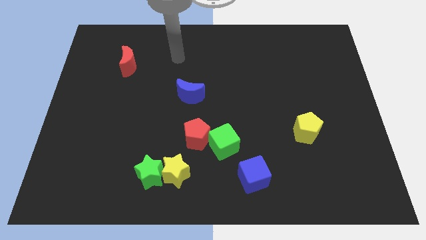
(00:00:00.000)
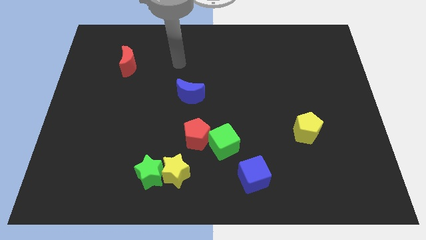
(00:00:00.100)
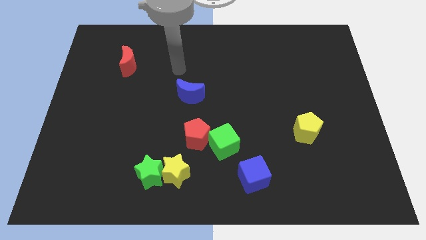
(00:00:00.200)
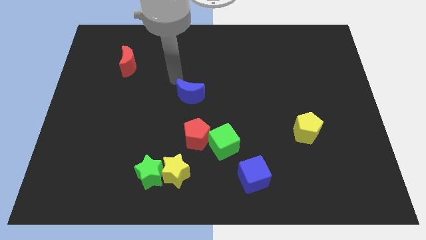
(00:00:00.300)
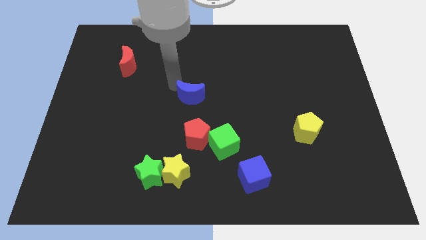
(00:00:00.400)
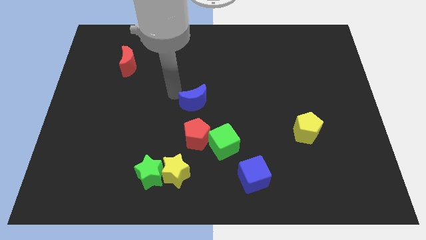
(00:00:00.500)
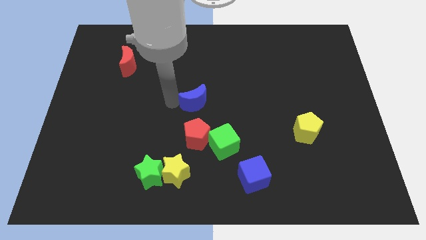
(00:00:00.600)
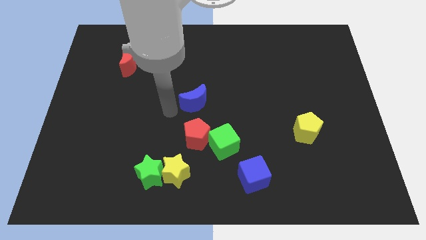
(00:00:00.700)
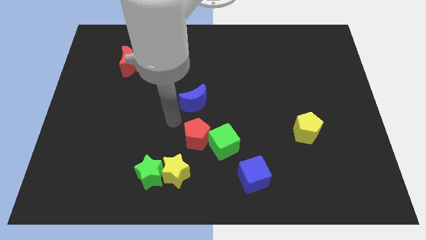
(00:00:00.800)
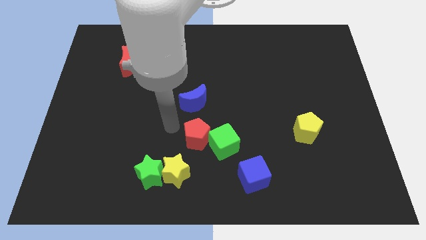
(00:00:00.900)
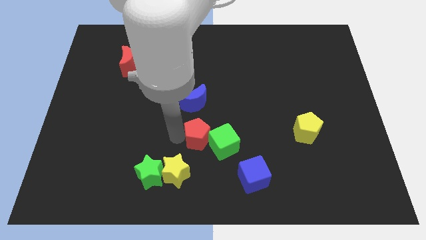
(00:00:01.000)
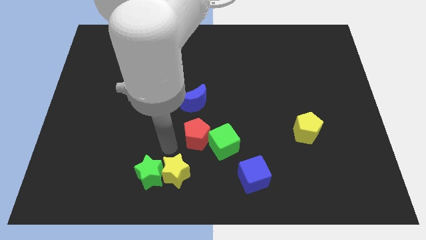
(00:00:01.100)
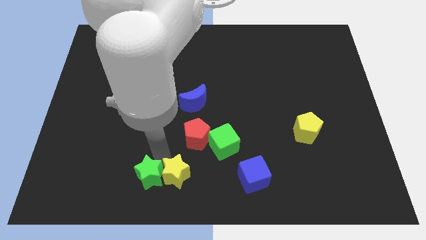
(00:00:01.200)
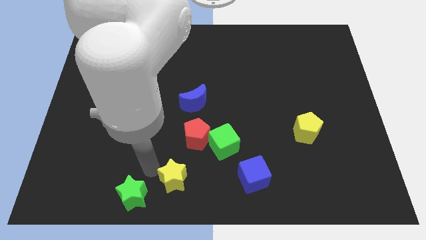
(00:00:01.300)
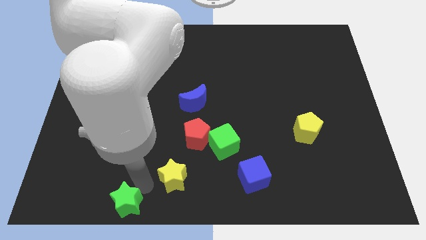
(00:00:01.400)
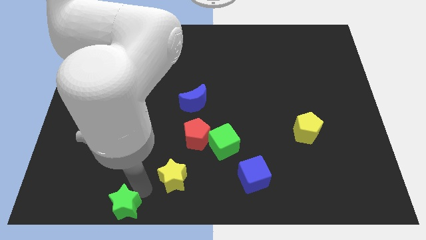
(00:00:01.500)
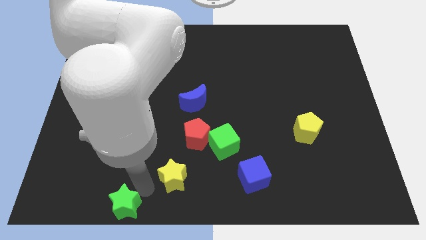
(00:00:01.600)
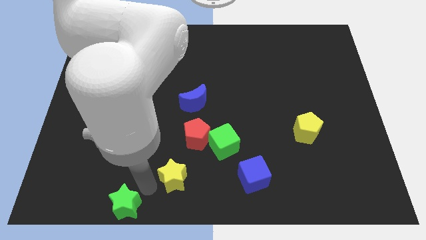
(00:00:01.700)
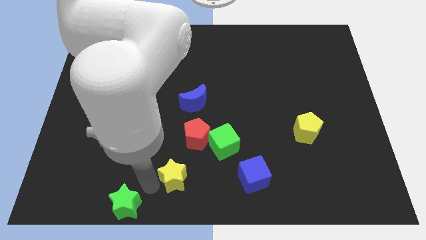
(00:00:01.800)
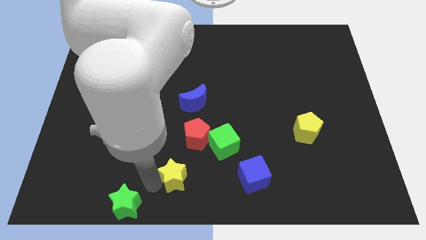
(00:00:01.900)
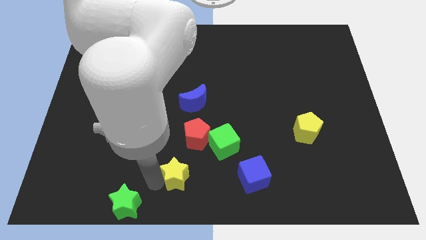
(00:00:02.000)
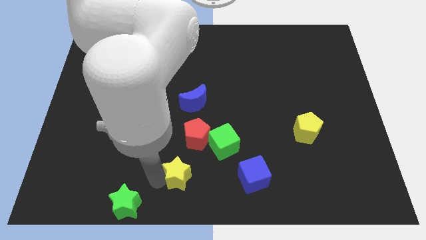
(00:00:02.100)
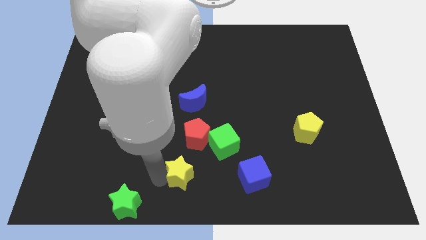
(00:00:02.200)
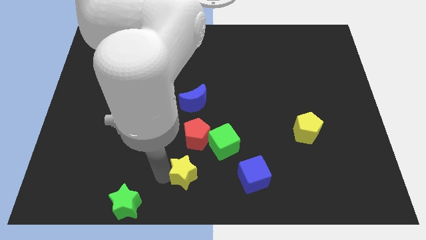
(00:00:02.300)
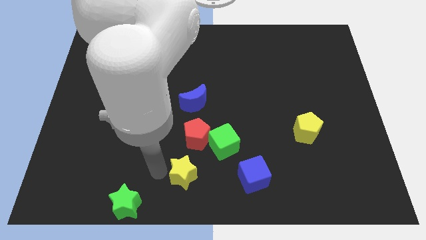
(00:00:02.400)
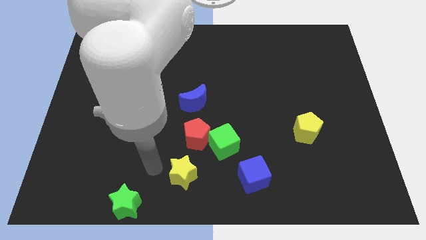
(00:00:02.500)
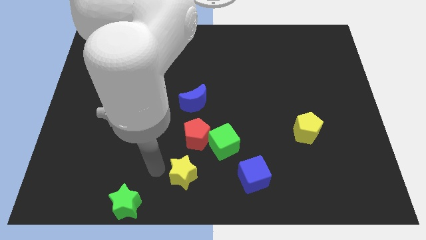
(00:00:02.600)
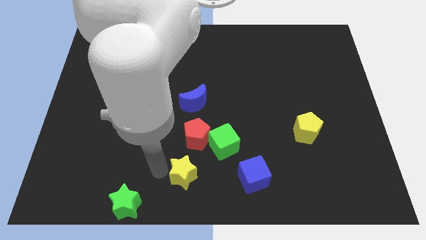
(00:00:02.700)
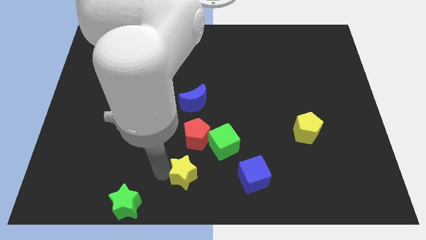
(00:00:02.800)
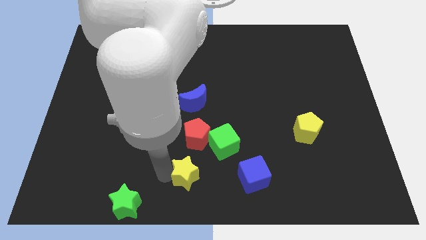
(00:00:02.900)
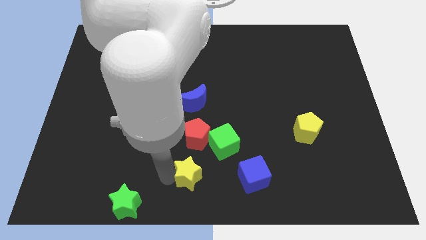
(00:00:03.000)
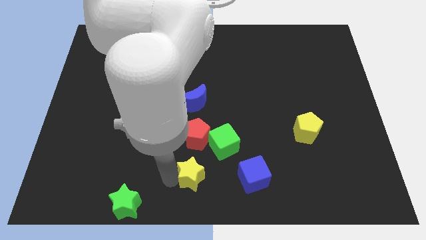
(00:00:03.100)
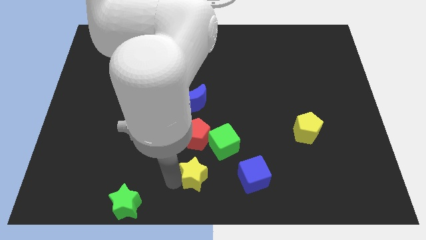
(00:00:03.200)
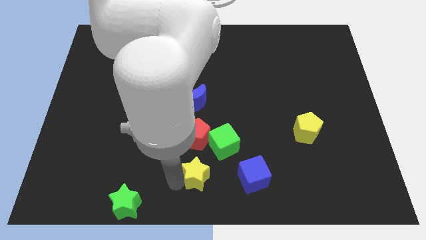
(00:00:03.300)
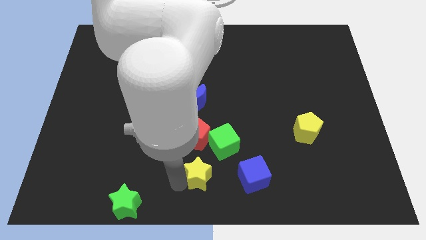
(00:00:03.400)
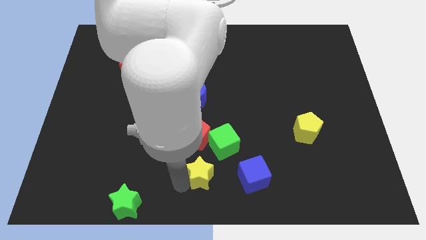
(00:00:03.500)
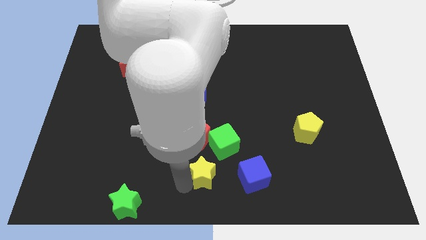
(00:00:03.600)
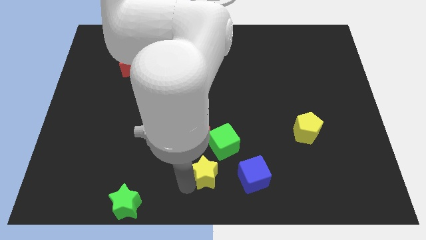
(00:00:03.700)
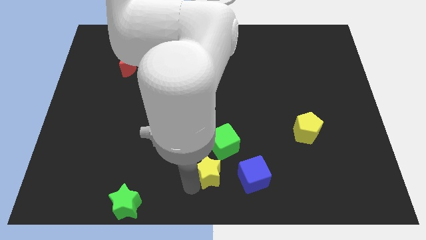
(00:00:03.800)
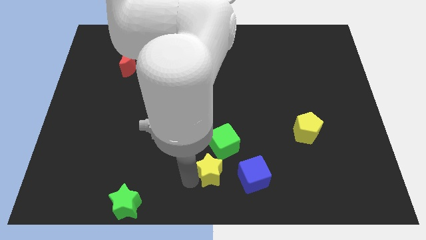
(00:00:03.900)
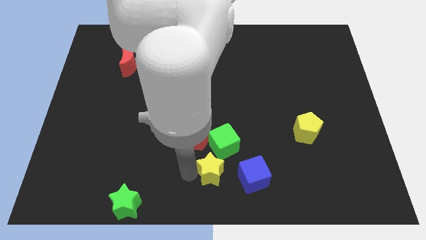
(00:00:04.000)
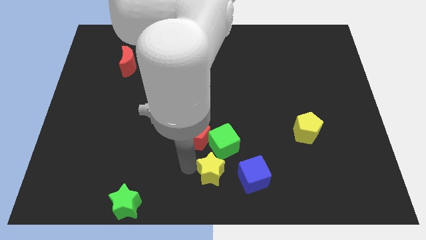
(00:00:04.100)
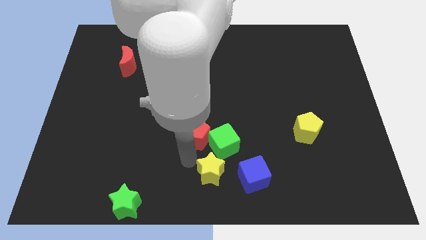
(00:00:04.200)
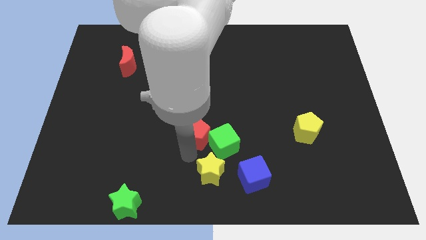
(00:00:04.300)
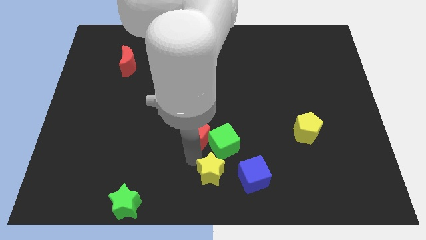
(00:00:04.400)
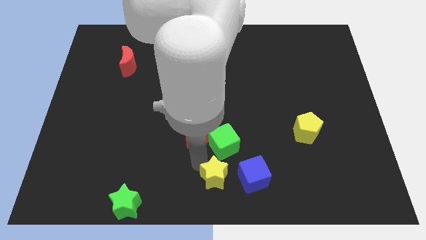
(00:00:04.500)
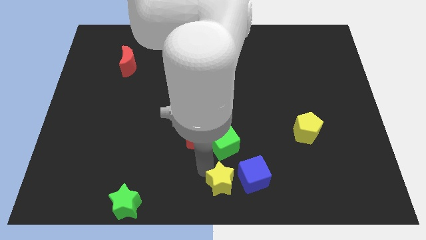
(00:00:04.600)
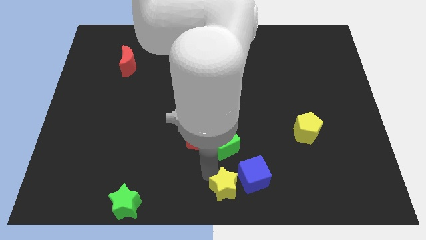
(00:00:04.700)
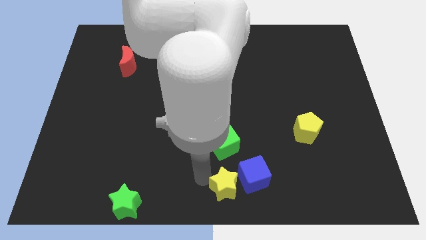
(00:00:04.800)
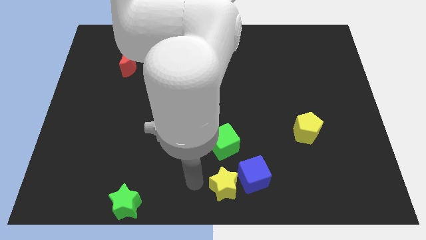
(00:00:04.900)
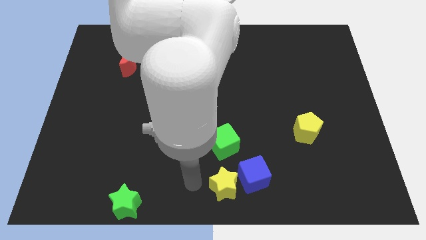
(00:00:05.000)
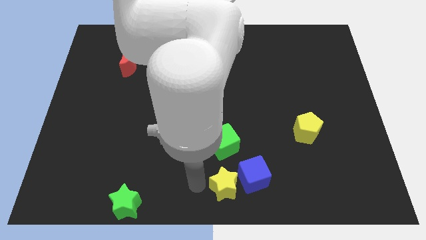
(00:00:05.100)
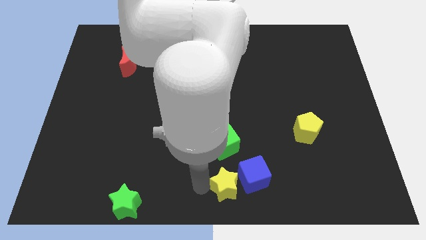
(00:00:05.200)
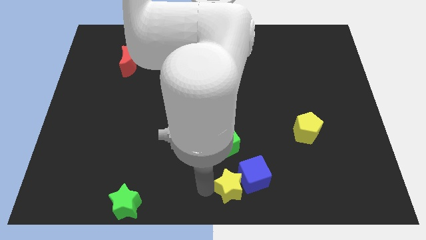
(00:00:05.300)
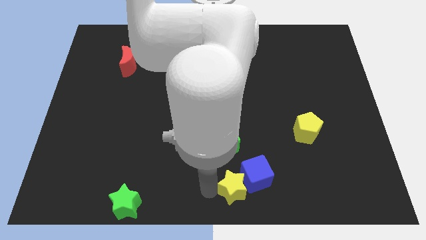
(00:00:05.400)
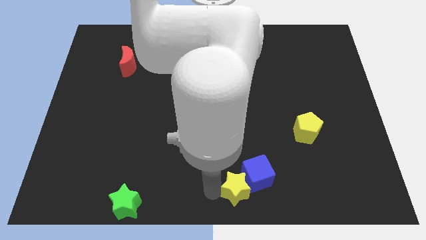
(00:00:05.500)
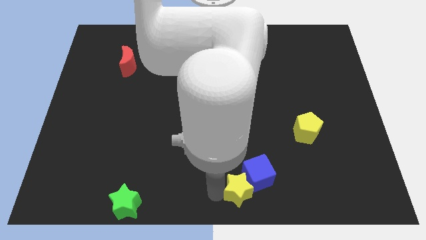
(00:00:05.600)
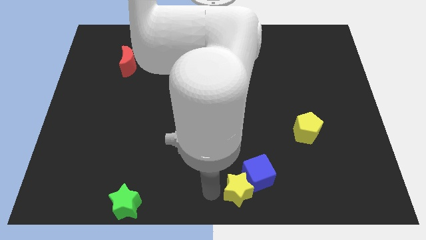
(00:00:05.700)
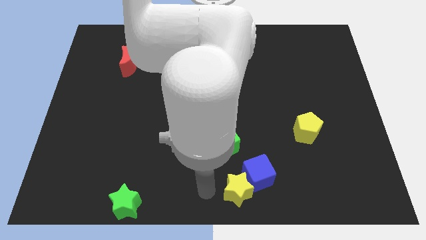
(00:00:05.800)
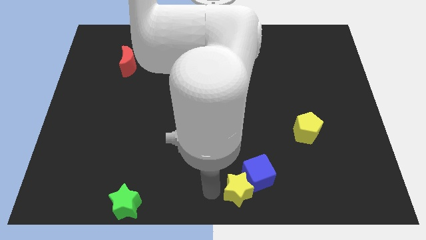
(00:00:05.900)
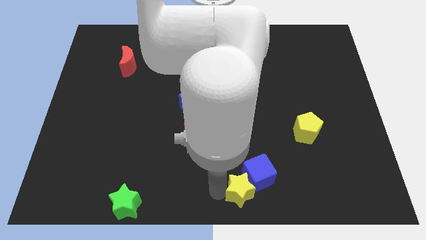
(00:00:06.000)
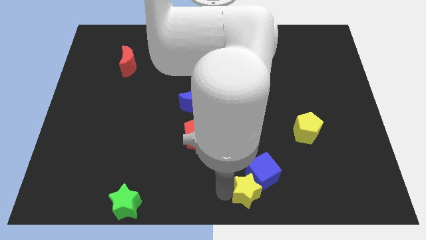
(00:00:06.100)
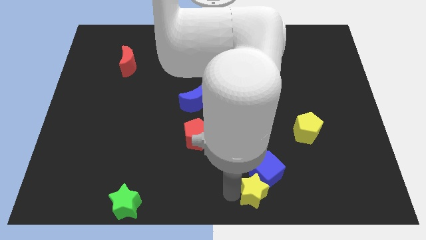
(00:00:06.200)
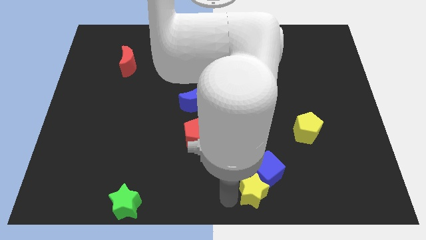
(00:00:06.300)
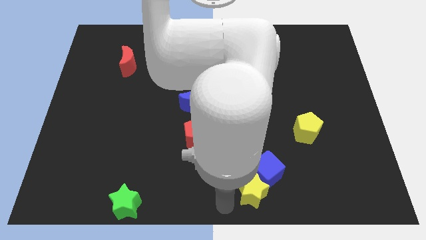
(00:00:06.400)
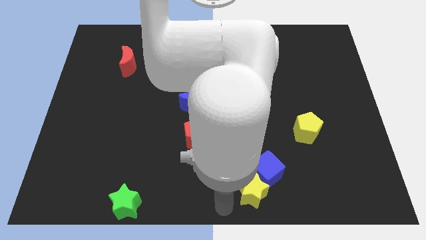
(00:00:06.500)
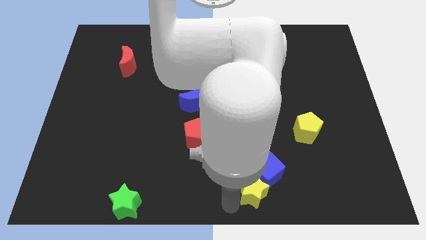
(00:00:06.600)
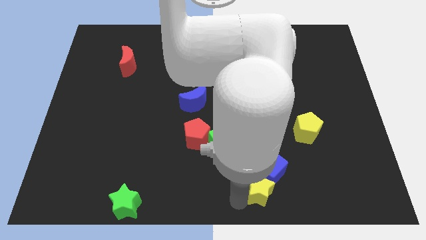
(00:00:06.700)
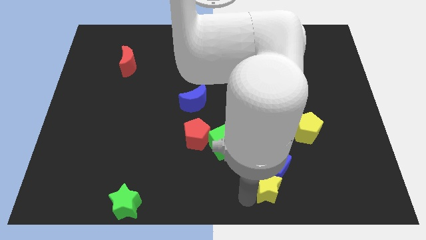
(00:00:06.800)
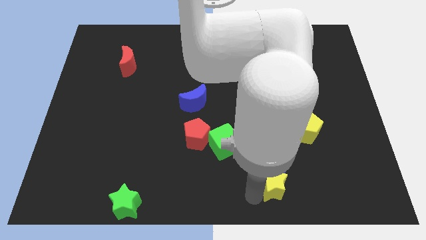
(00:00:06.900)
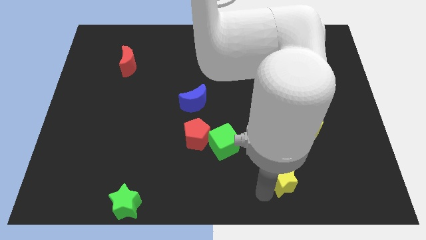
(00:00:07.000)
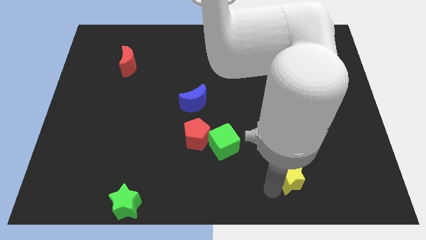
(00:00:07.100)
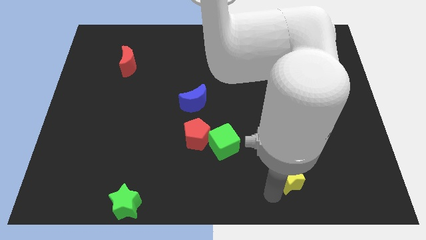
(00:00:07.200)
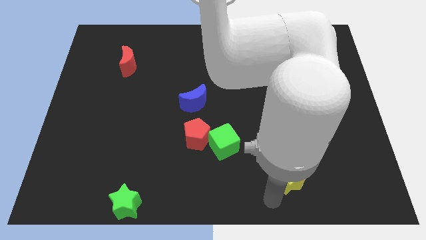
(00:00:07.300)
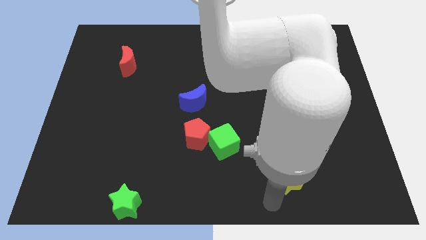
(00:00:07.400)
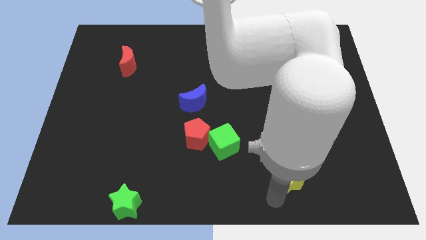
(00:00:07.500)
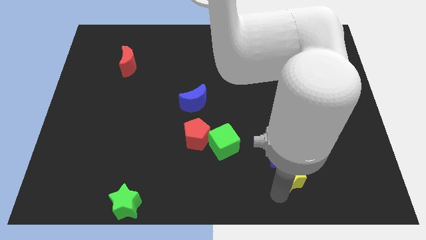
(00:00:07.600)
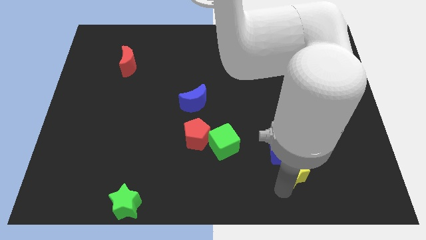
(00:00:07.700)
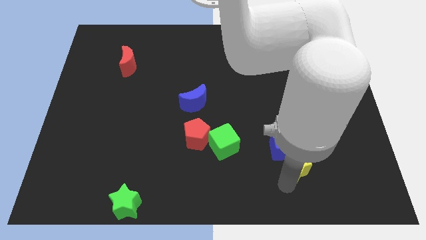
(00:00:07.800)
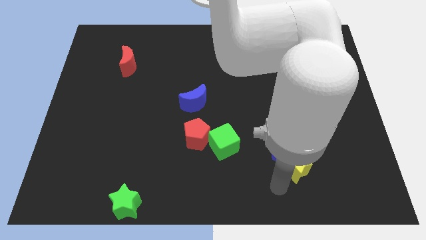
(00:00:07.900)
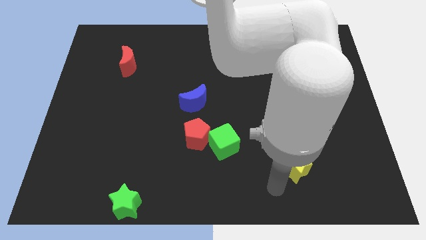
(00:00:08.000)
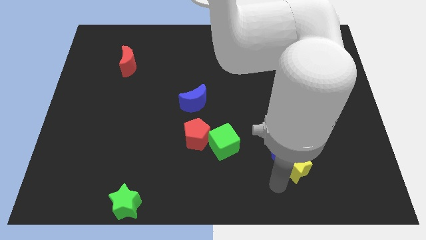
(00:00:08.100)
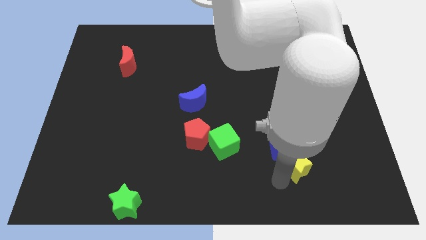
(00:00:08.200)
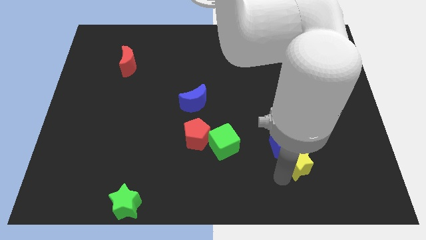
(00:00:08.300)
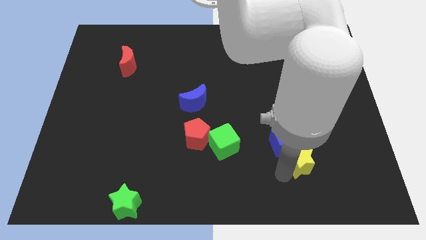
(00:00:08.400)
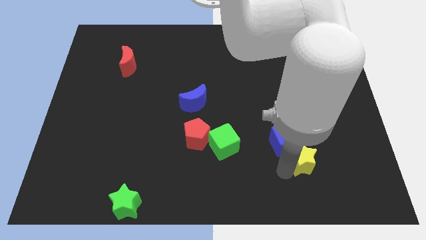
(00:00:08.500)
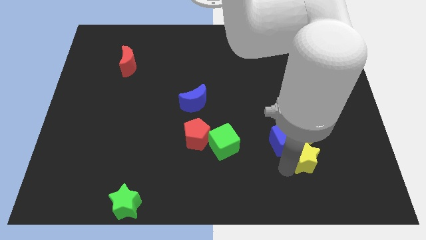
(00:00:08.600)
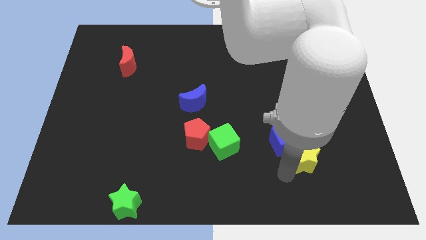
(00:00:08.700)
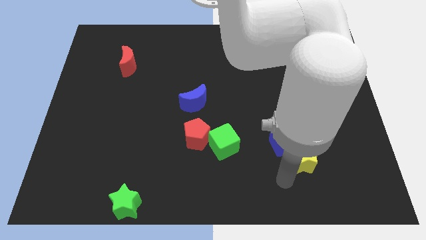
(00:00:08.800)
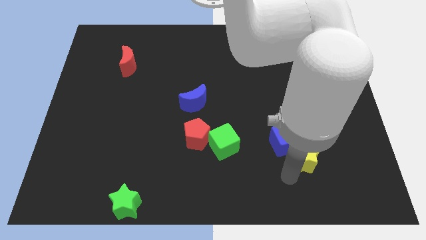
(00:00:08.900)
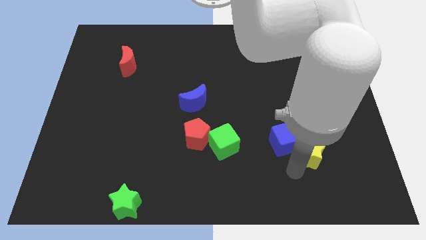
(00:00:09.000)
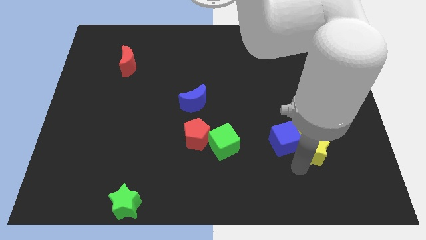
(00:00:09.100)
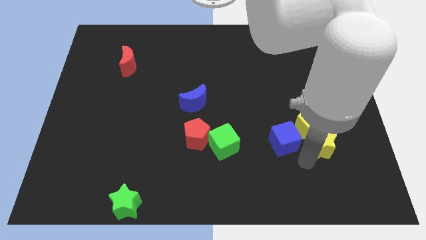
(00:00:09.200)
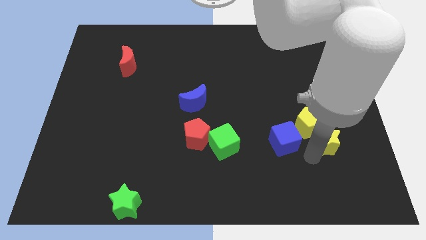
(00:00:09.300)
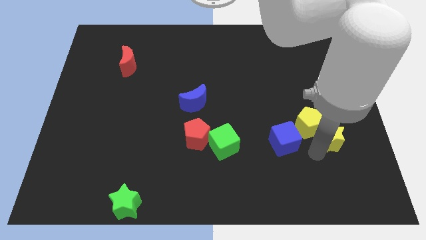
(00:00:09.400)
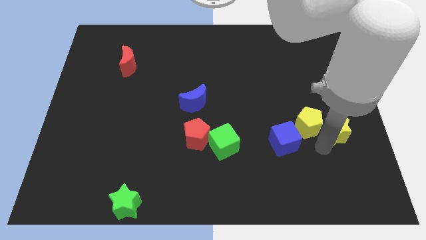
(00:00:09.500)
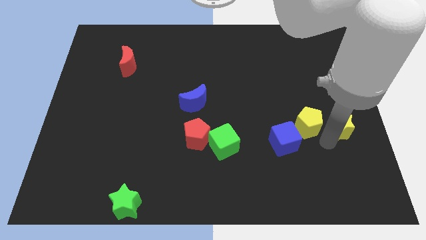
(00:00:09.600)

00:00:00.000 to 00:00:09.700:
put the yellow star to the right side
